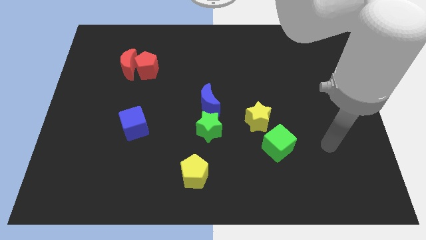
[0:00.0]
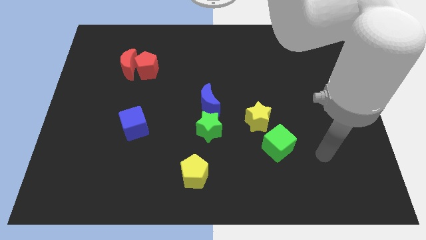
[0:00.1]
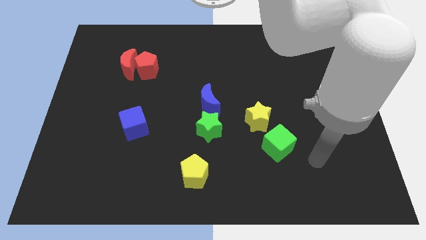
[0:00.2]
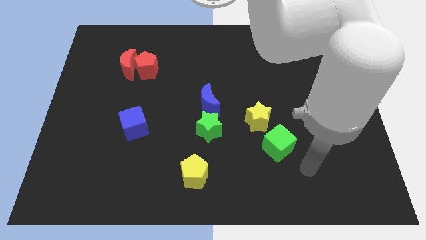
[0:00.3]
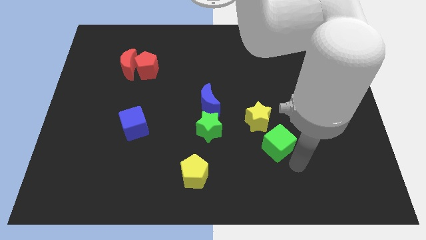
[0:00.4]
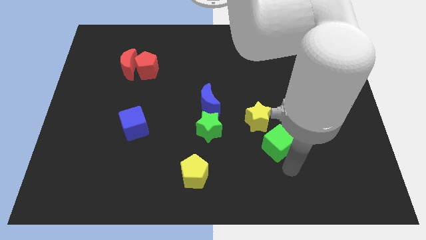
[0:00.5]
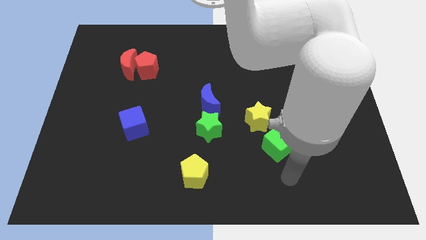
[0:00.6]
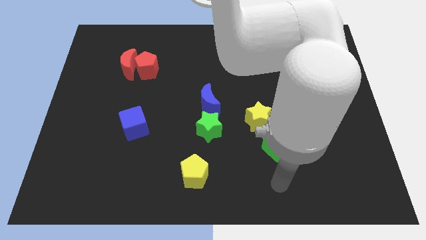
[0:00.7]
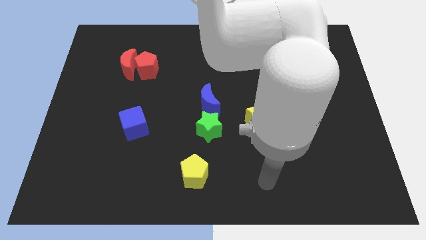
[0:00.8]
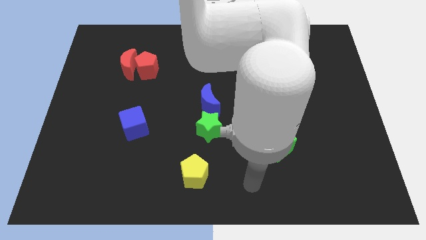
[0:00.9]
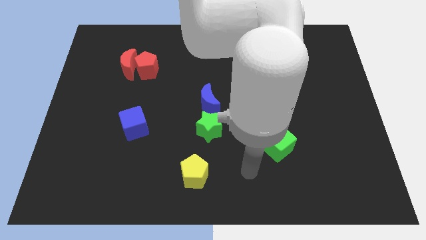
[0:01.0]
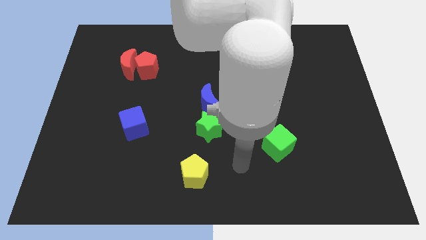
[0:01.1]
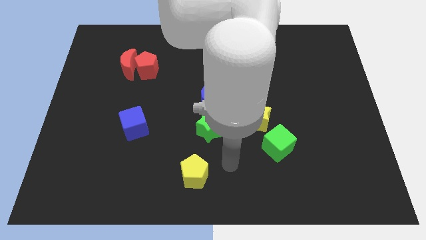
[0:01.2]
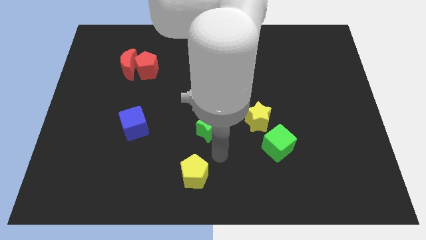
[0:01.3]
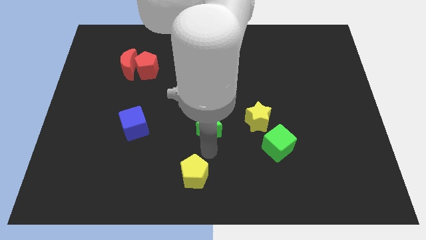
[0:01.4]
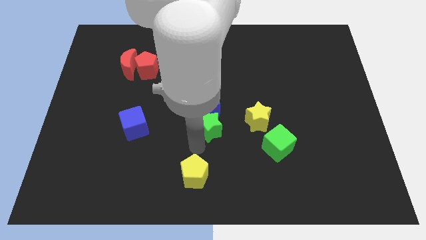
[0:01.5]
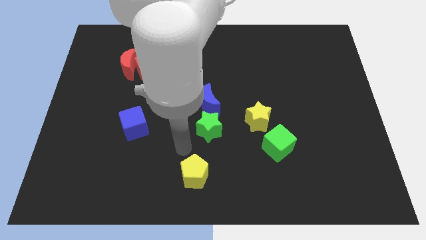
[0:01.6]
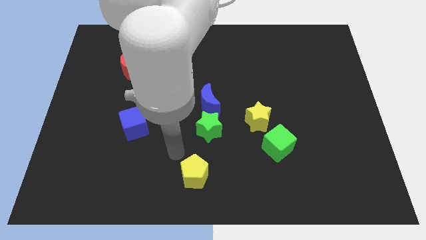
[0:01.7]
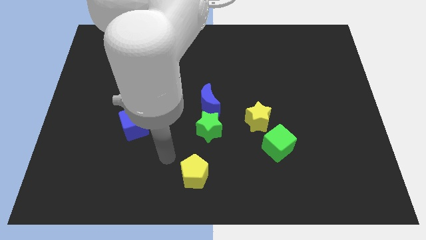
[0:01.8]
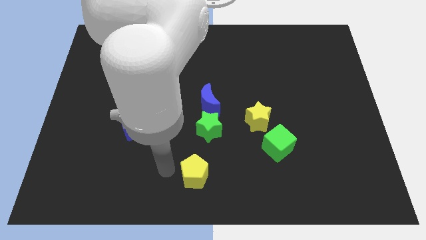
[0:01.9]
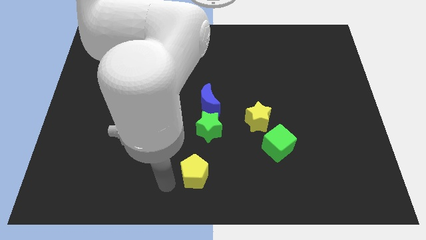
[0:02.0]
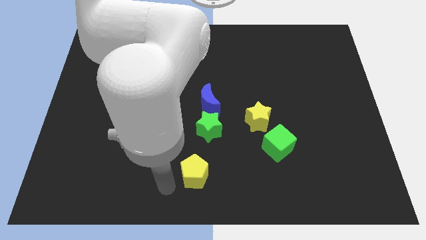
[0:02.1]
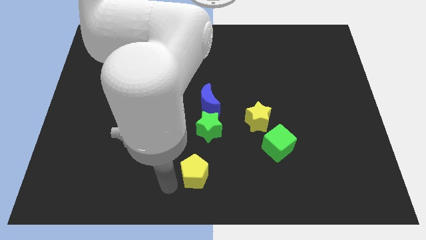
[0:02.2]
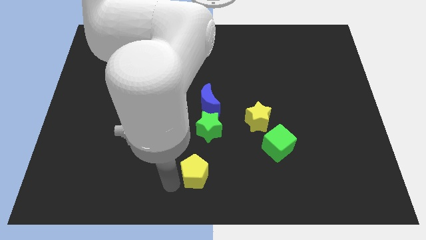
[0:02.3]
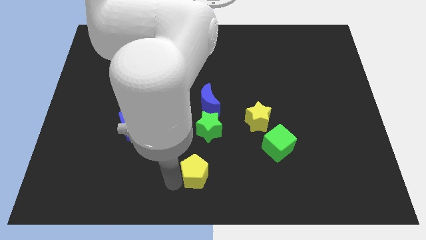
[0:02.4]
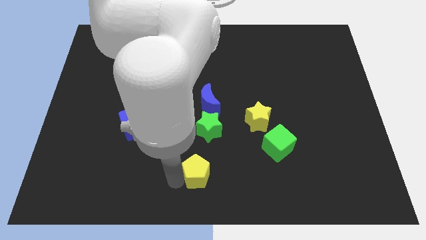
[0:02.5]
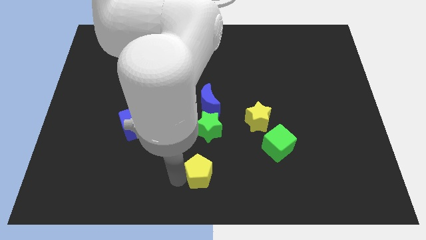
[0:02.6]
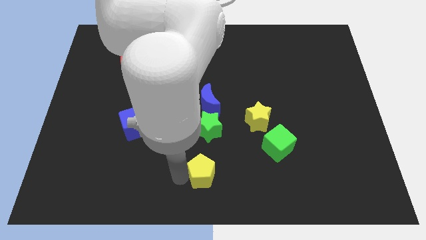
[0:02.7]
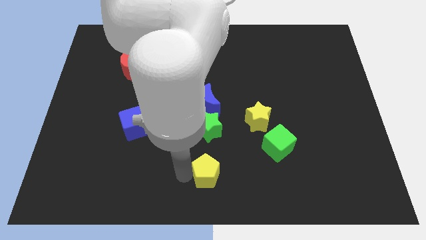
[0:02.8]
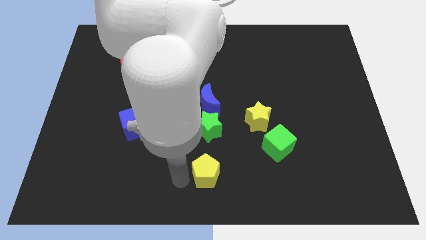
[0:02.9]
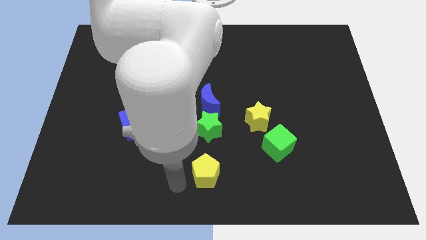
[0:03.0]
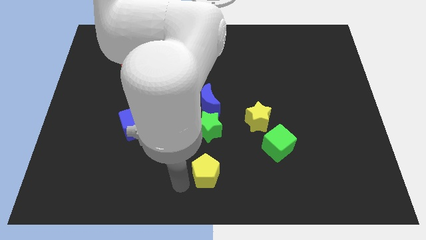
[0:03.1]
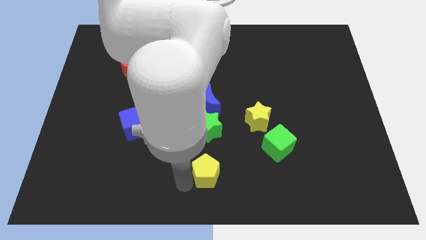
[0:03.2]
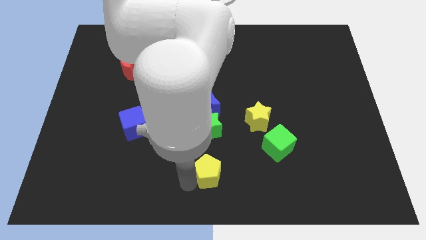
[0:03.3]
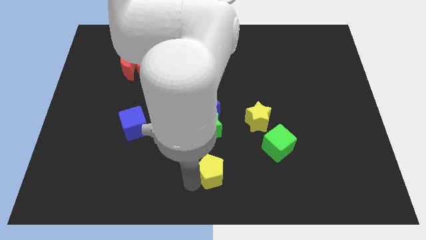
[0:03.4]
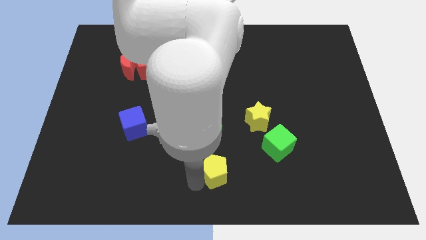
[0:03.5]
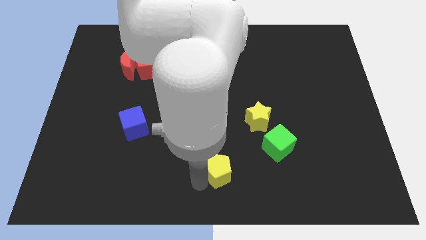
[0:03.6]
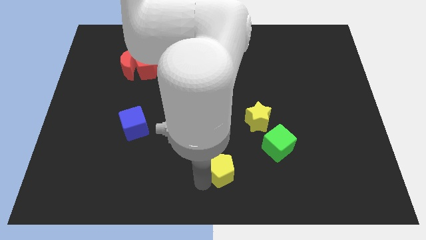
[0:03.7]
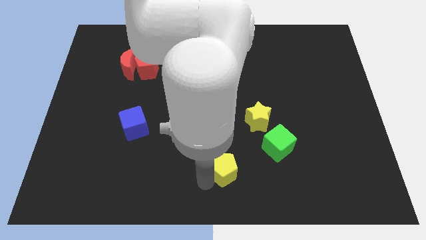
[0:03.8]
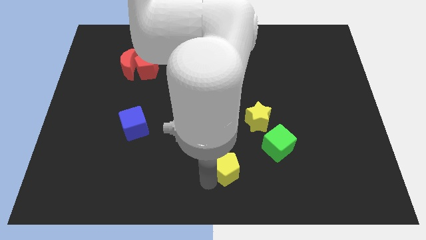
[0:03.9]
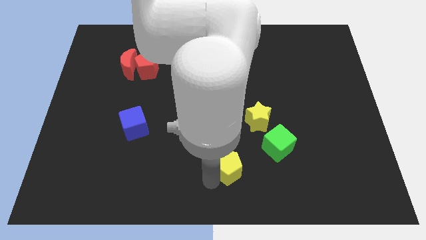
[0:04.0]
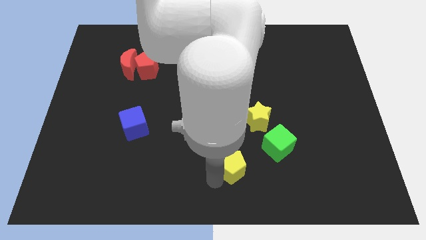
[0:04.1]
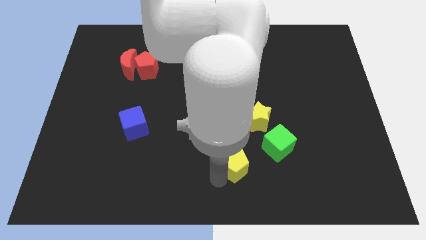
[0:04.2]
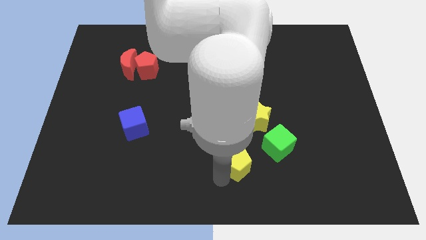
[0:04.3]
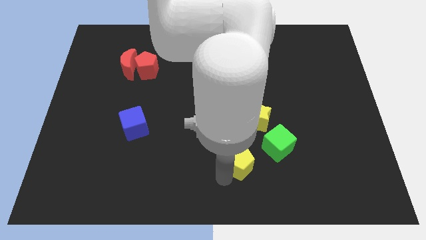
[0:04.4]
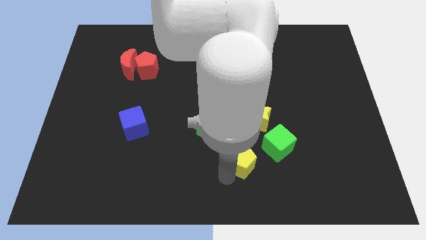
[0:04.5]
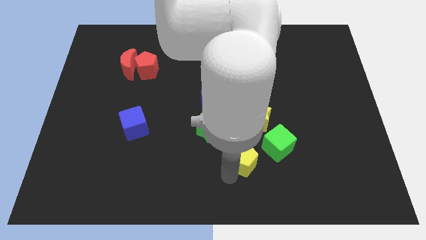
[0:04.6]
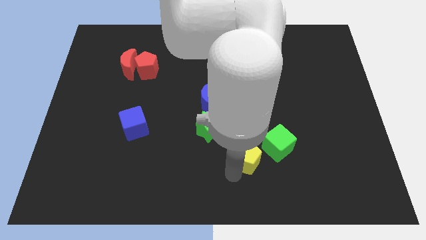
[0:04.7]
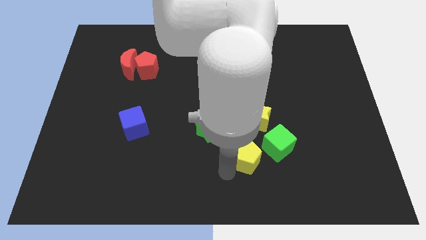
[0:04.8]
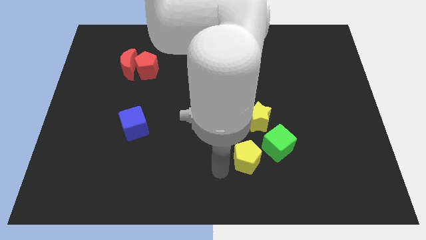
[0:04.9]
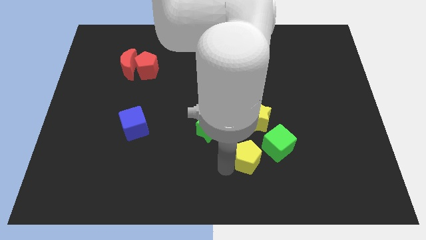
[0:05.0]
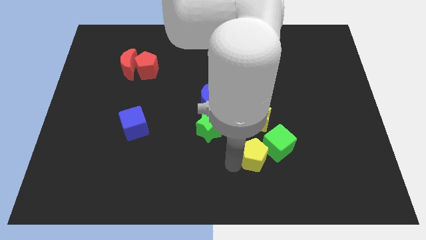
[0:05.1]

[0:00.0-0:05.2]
move the yellow pentagon close to the green cube

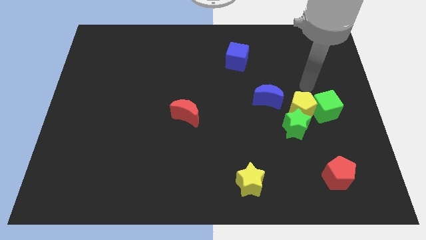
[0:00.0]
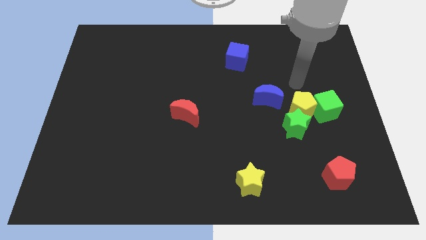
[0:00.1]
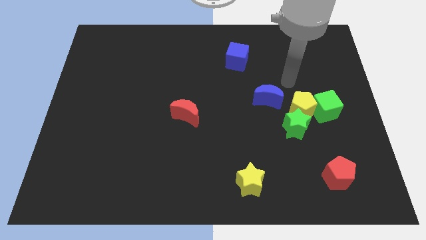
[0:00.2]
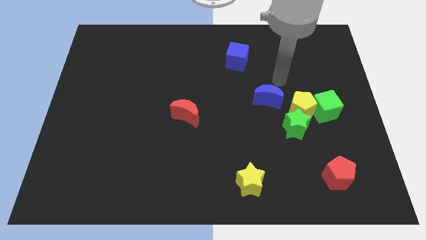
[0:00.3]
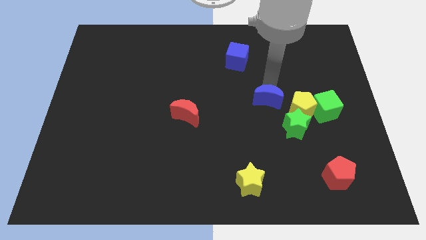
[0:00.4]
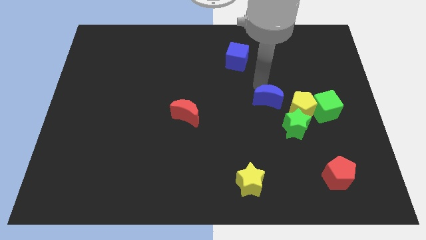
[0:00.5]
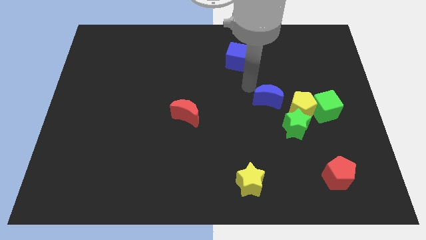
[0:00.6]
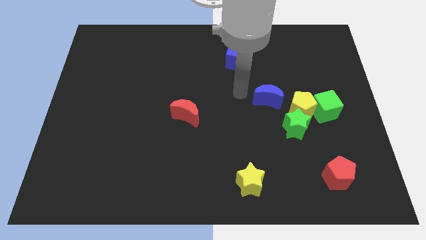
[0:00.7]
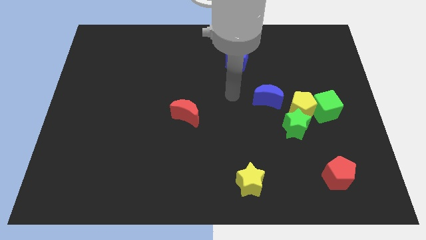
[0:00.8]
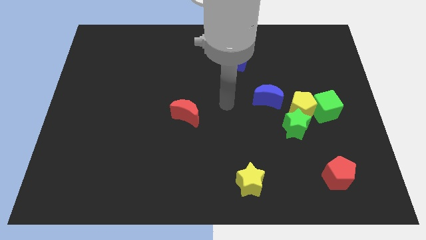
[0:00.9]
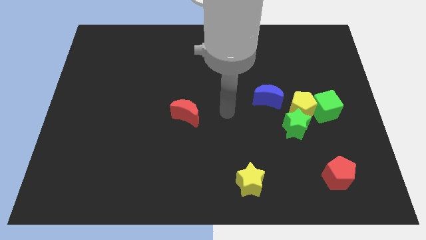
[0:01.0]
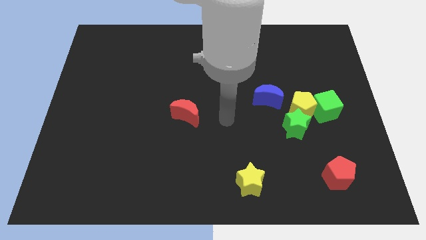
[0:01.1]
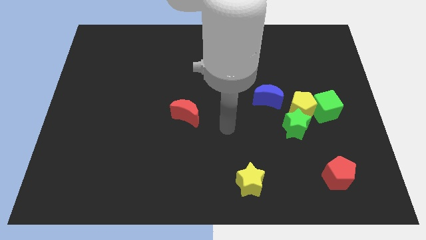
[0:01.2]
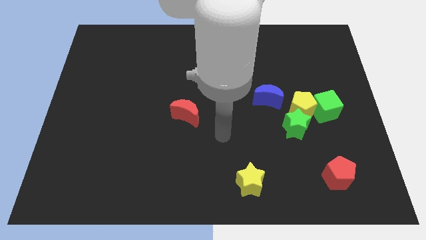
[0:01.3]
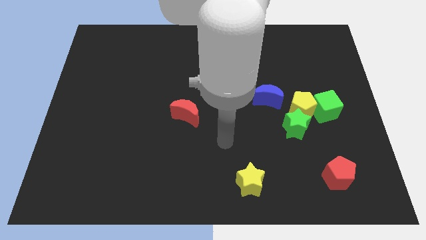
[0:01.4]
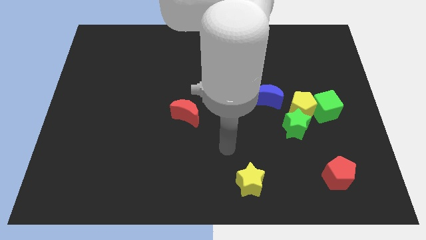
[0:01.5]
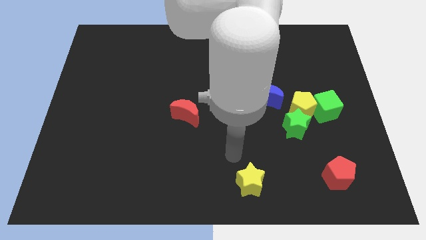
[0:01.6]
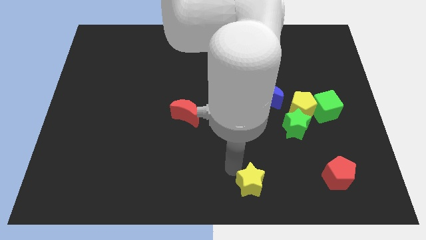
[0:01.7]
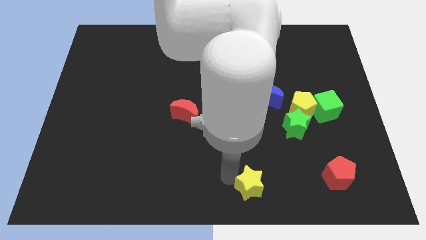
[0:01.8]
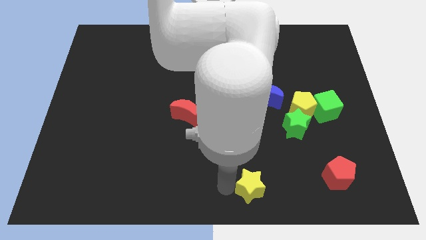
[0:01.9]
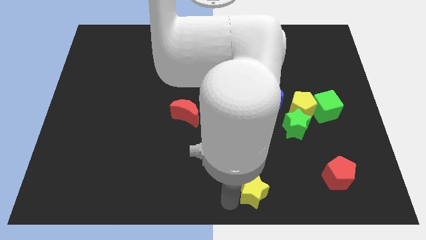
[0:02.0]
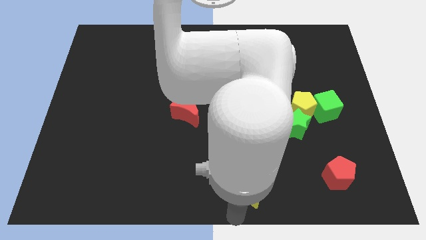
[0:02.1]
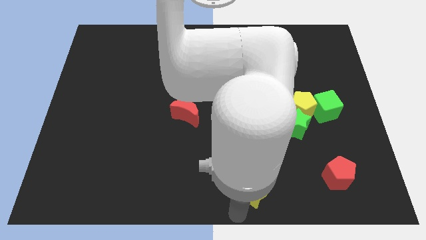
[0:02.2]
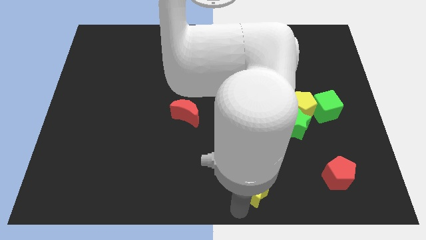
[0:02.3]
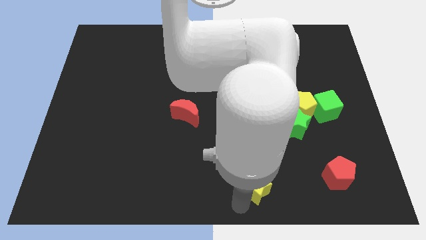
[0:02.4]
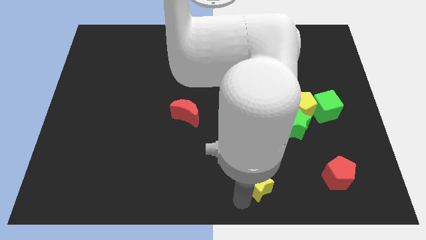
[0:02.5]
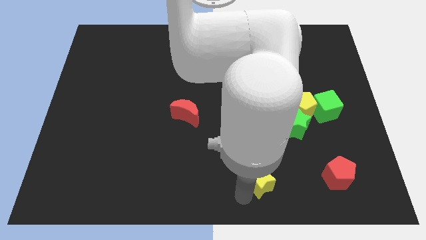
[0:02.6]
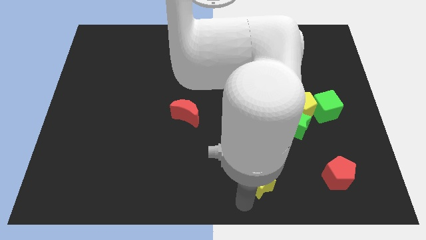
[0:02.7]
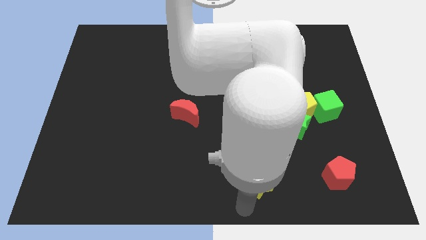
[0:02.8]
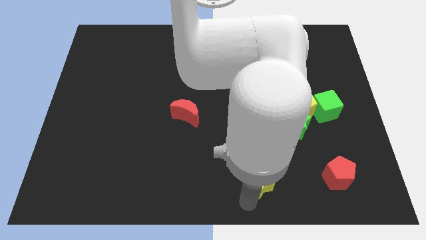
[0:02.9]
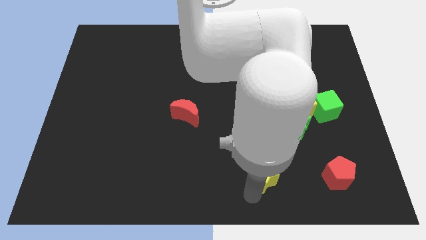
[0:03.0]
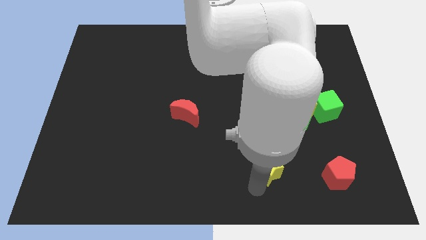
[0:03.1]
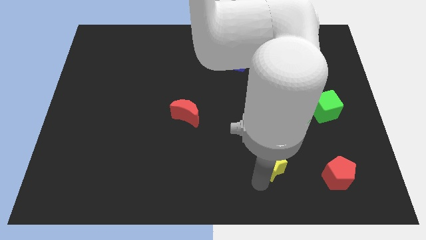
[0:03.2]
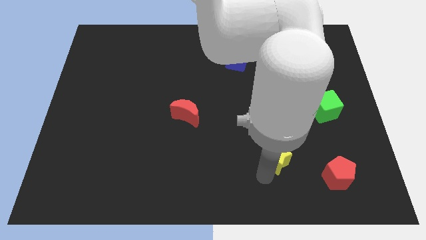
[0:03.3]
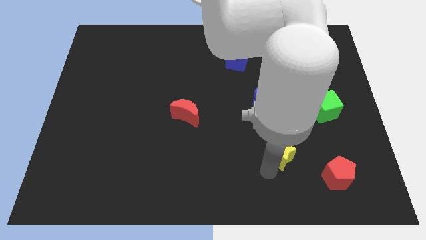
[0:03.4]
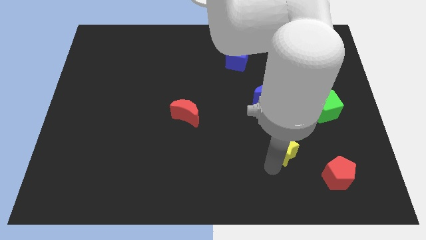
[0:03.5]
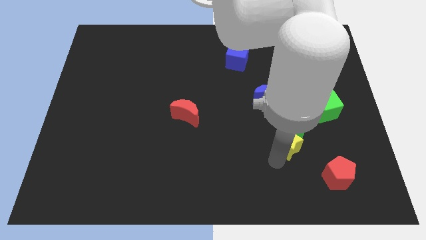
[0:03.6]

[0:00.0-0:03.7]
push the yellow star close to the green star
